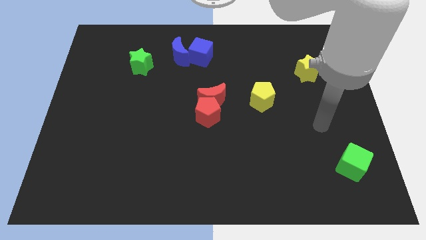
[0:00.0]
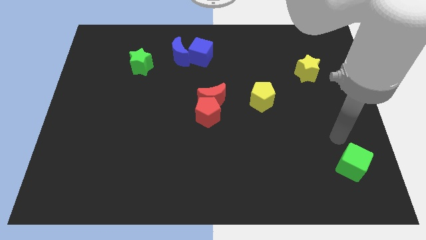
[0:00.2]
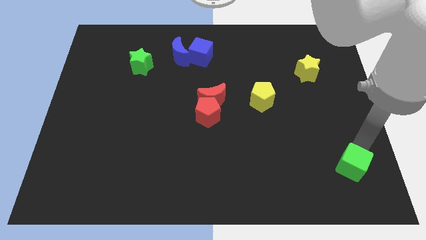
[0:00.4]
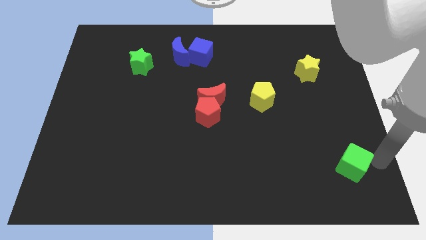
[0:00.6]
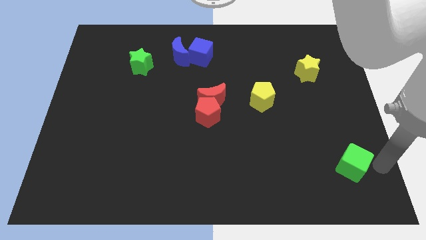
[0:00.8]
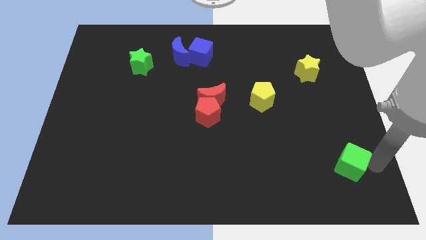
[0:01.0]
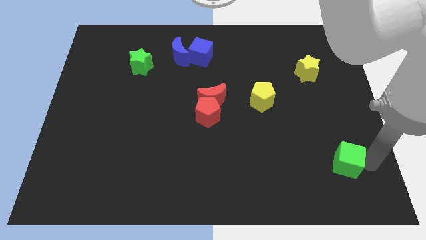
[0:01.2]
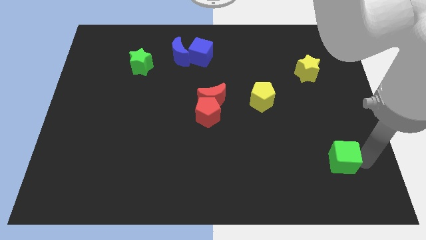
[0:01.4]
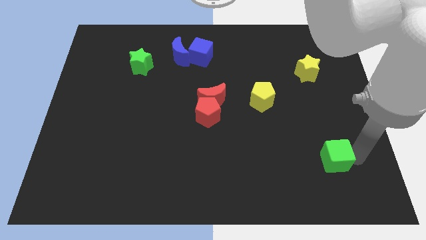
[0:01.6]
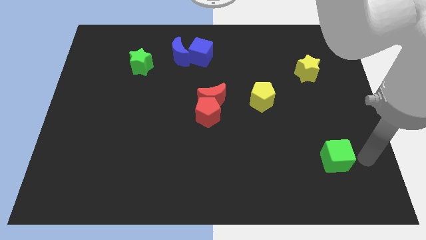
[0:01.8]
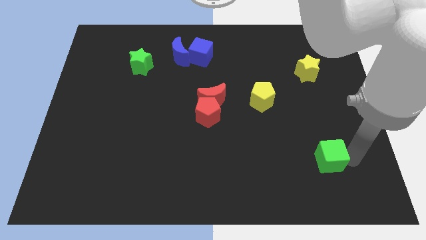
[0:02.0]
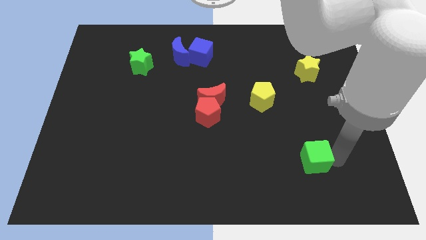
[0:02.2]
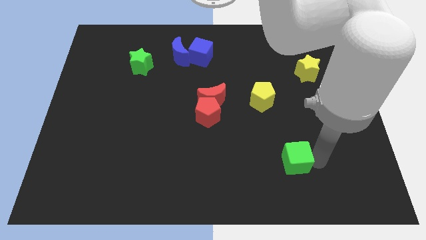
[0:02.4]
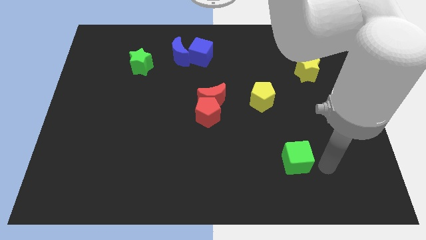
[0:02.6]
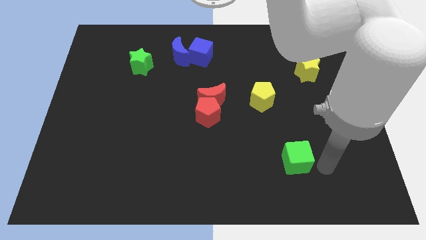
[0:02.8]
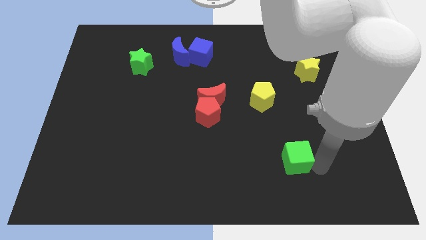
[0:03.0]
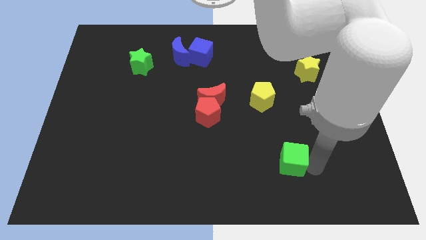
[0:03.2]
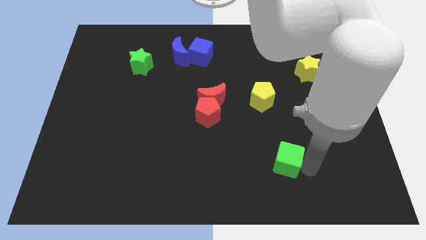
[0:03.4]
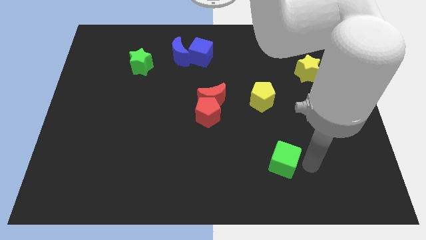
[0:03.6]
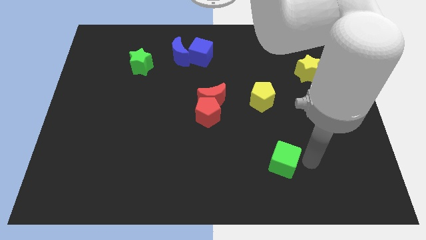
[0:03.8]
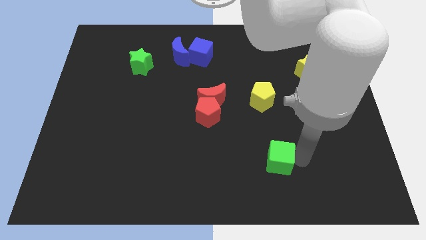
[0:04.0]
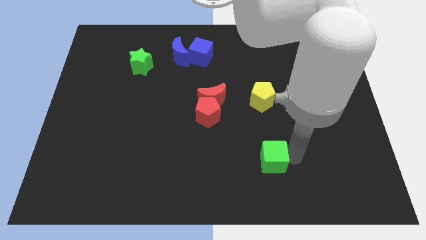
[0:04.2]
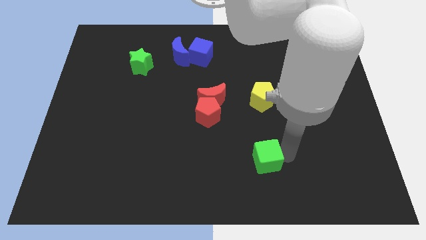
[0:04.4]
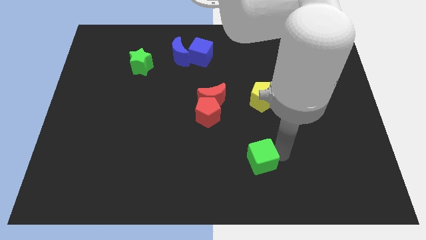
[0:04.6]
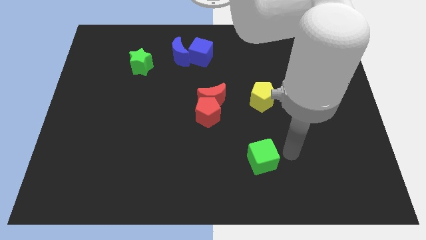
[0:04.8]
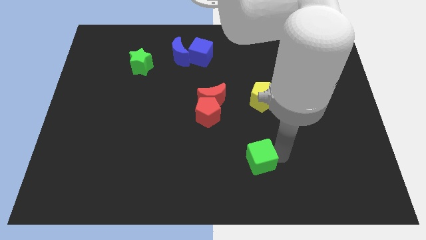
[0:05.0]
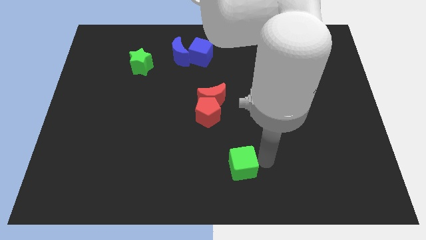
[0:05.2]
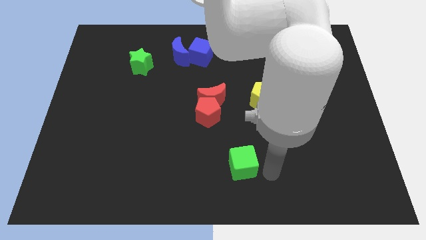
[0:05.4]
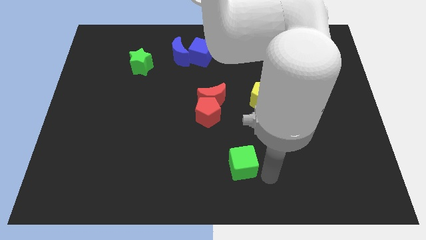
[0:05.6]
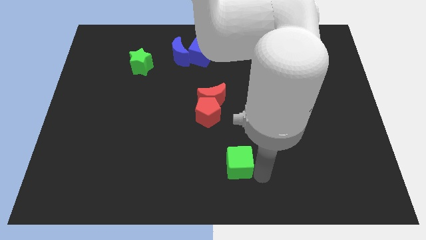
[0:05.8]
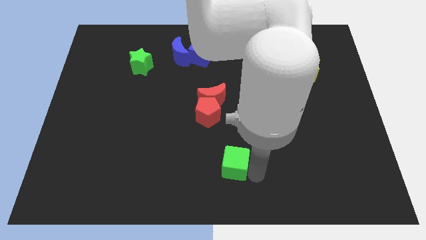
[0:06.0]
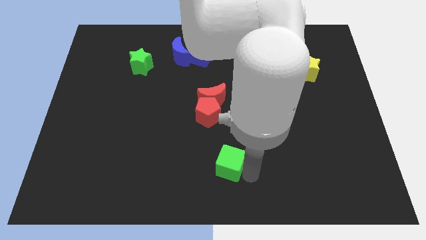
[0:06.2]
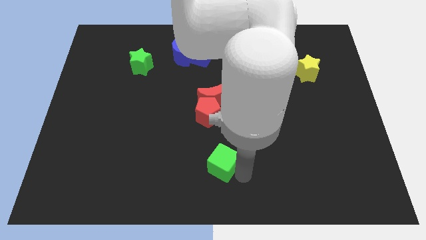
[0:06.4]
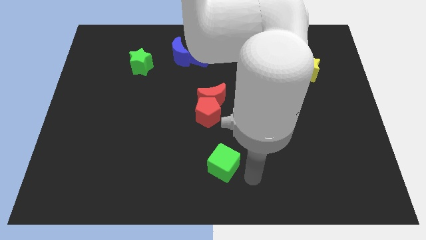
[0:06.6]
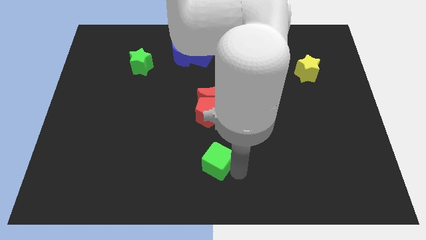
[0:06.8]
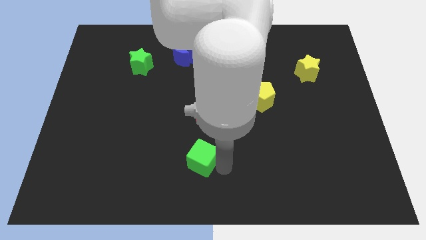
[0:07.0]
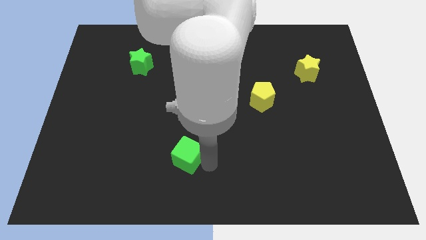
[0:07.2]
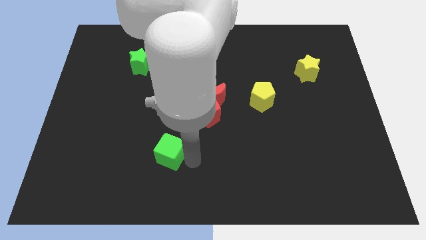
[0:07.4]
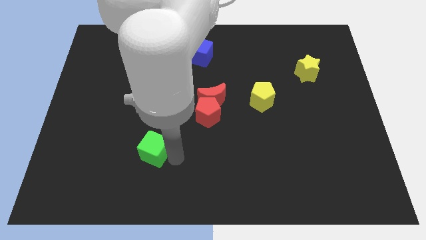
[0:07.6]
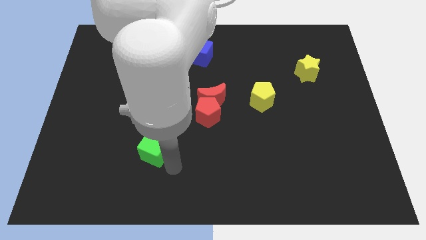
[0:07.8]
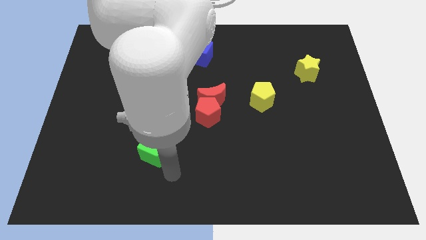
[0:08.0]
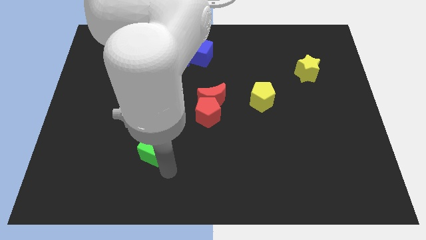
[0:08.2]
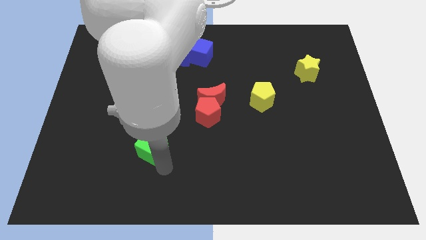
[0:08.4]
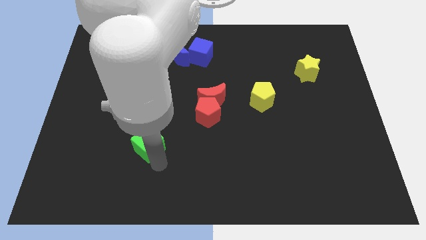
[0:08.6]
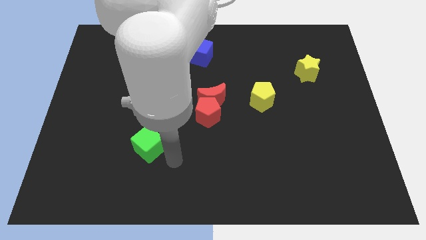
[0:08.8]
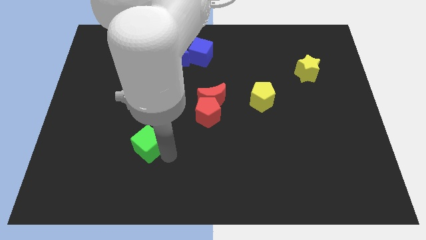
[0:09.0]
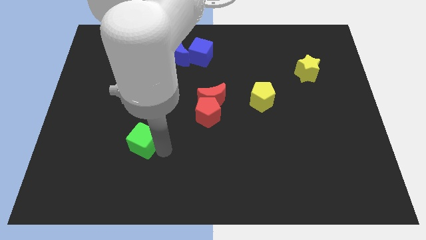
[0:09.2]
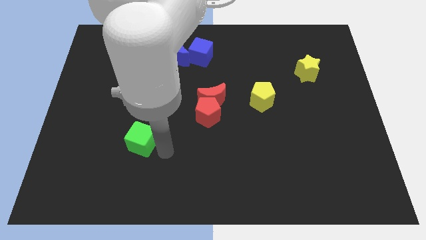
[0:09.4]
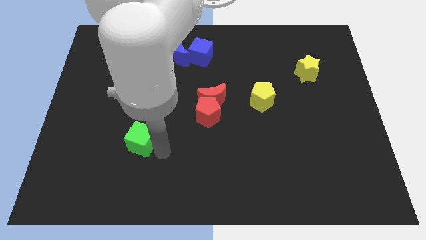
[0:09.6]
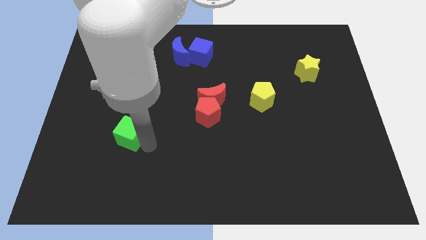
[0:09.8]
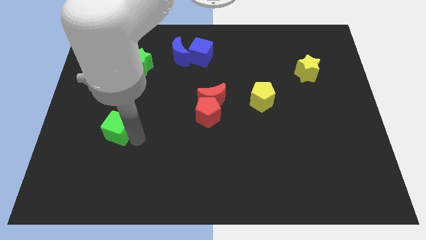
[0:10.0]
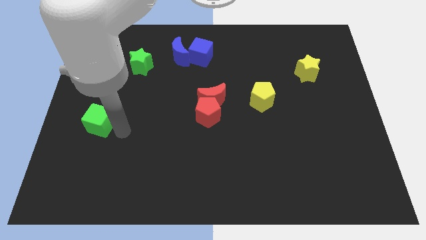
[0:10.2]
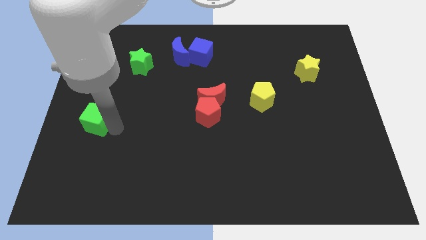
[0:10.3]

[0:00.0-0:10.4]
push the green cube to the left side

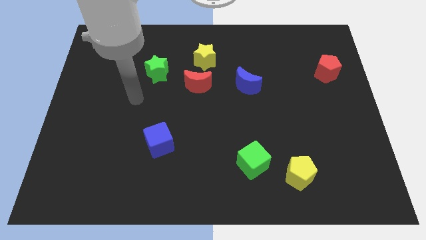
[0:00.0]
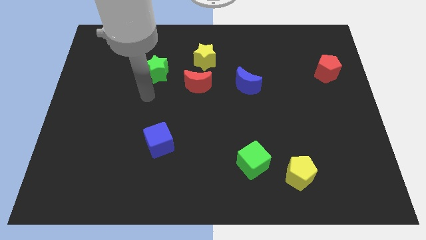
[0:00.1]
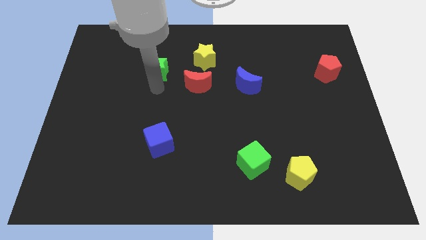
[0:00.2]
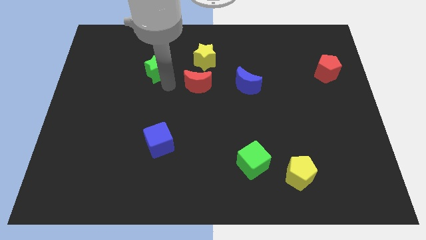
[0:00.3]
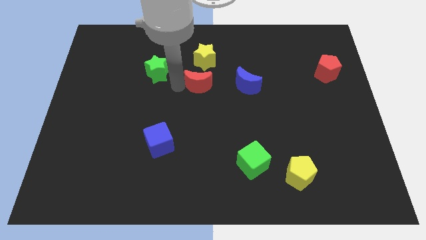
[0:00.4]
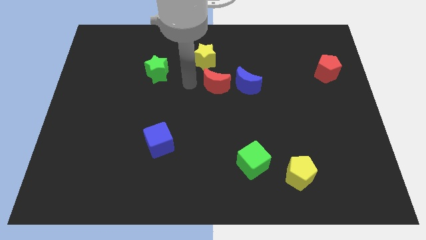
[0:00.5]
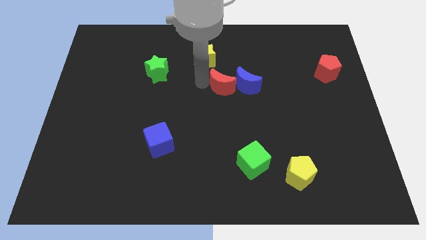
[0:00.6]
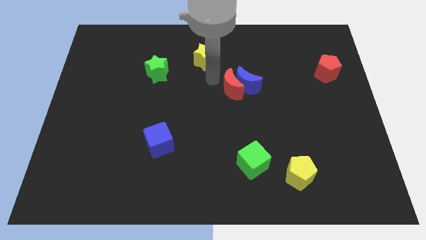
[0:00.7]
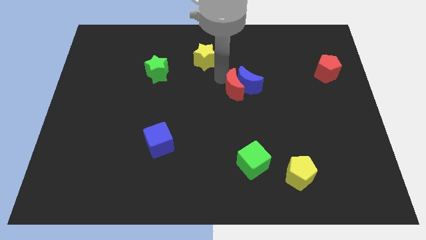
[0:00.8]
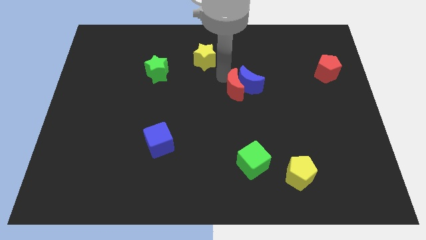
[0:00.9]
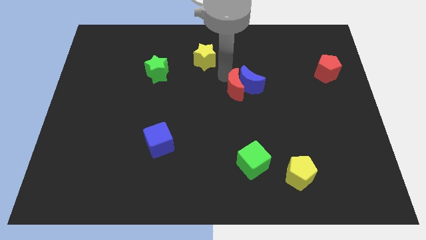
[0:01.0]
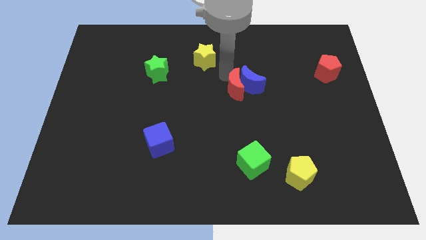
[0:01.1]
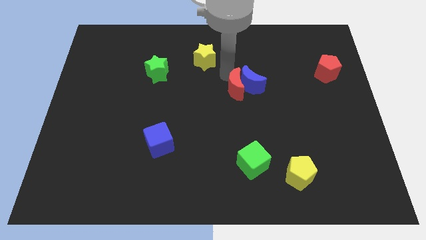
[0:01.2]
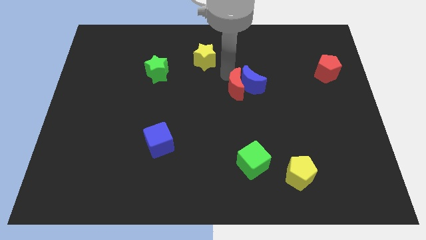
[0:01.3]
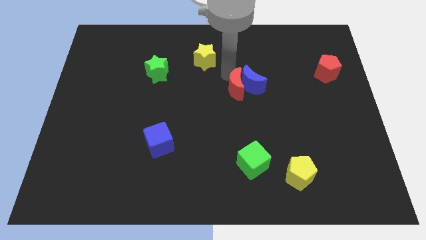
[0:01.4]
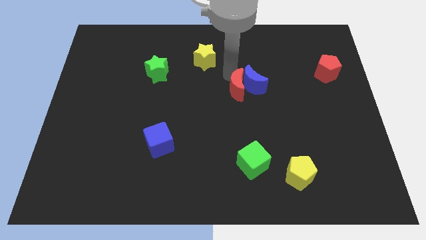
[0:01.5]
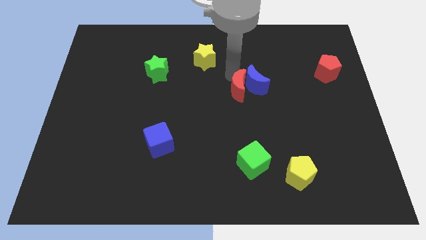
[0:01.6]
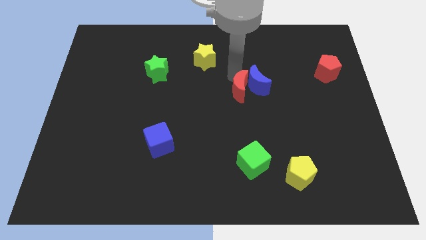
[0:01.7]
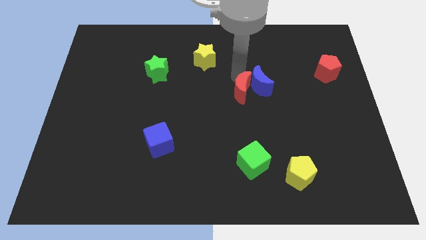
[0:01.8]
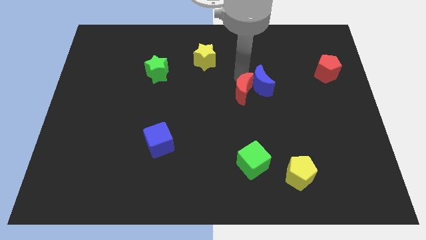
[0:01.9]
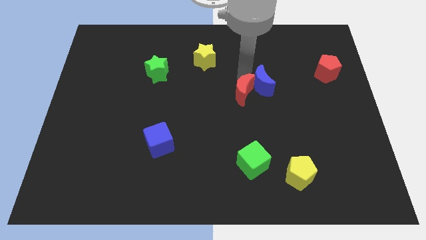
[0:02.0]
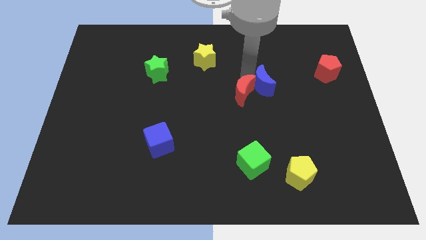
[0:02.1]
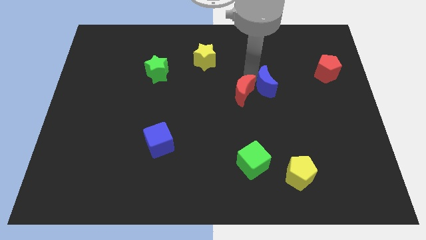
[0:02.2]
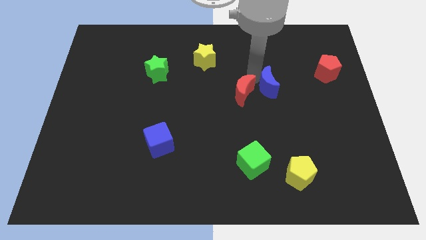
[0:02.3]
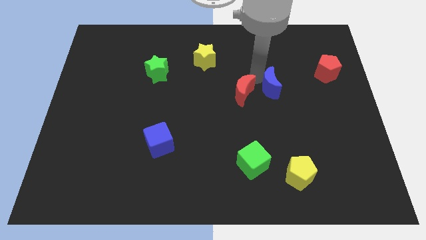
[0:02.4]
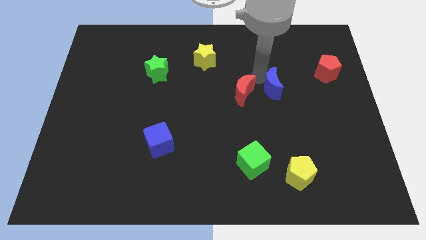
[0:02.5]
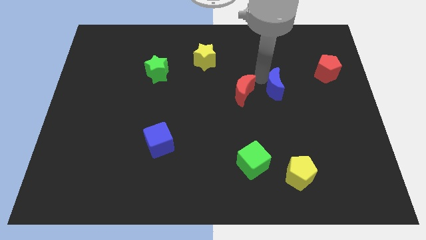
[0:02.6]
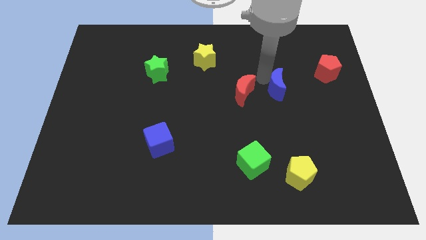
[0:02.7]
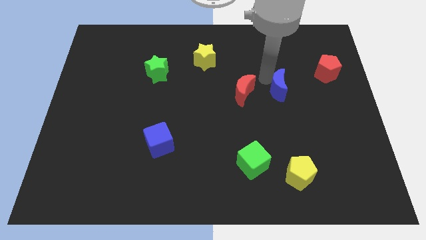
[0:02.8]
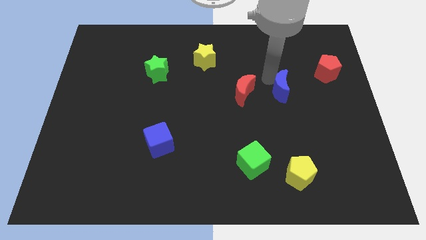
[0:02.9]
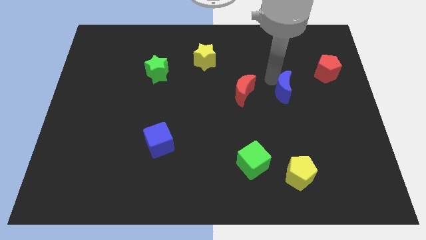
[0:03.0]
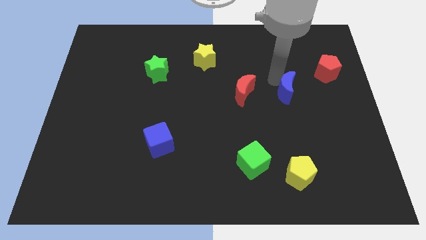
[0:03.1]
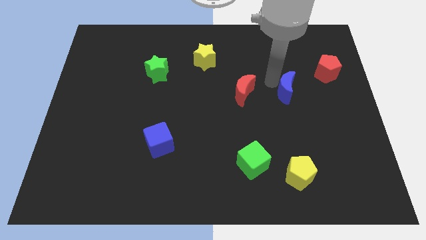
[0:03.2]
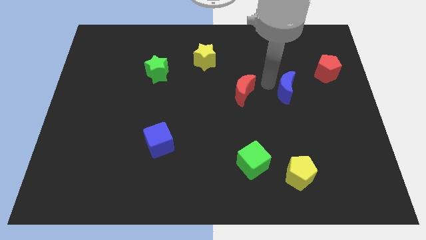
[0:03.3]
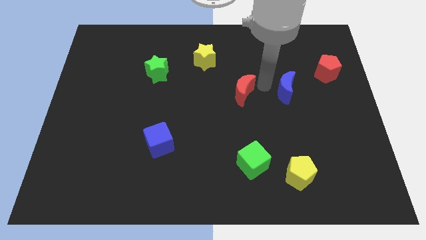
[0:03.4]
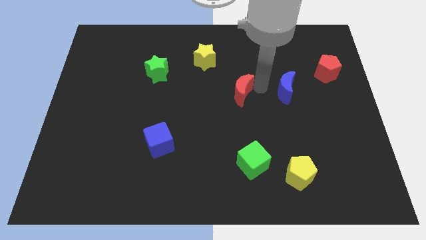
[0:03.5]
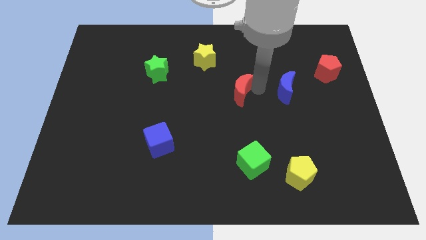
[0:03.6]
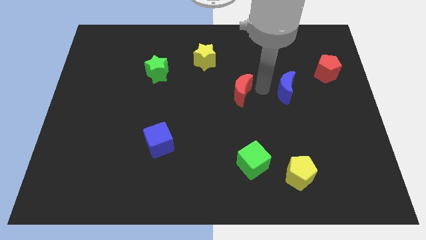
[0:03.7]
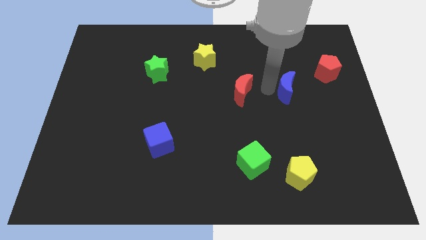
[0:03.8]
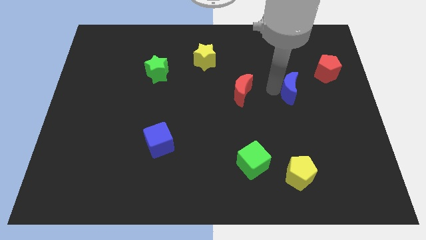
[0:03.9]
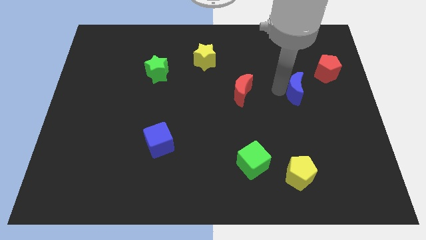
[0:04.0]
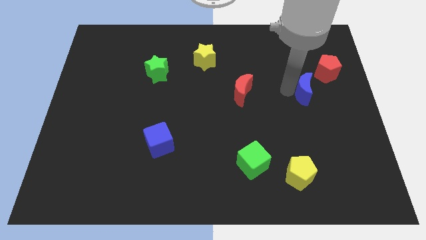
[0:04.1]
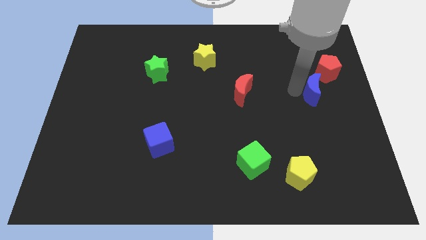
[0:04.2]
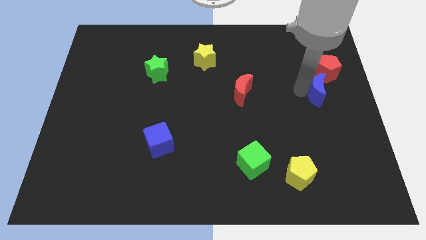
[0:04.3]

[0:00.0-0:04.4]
slide the blue moon to the center right
